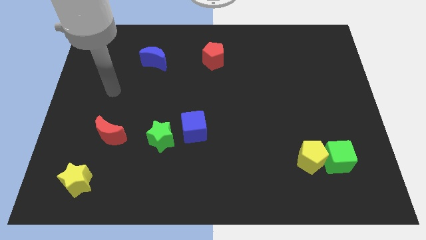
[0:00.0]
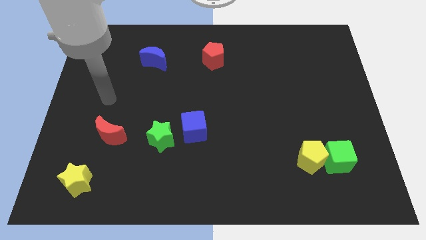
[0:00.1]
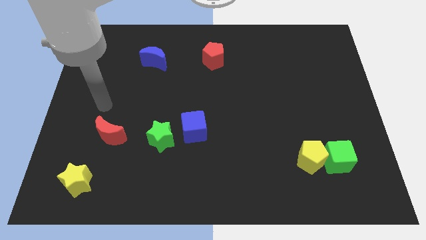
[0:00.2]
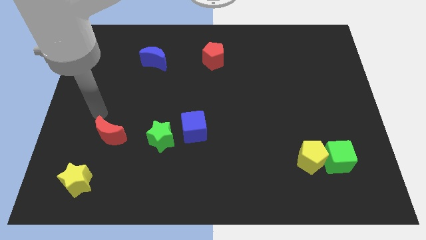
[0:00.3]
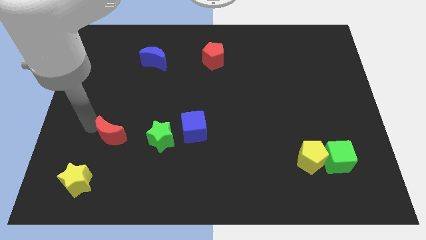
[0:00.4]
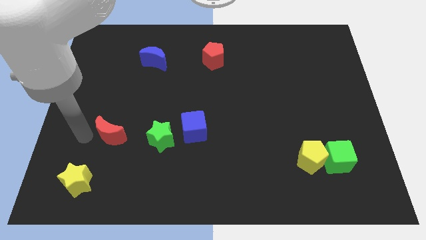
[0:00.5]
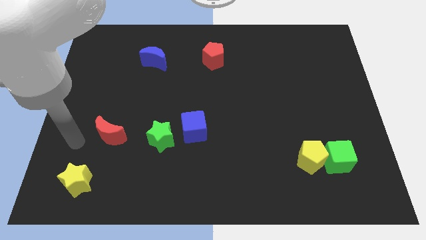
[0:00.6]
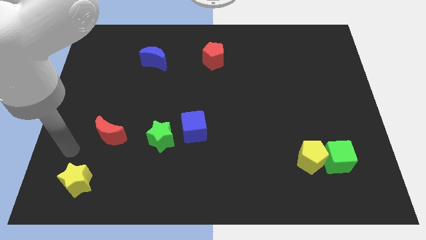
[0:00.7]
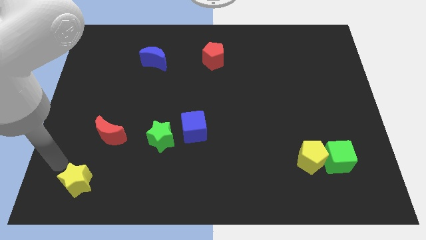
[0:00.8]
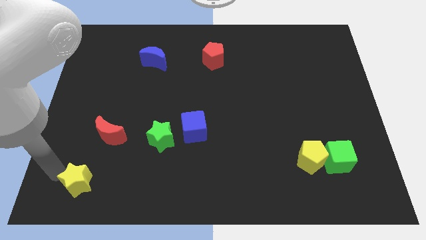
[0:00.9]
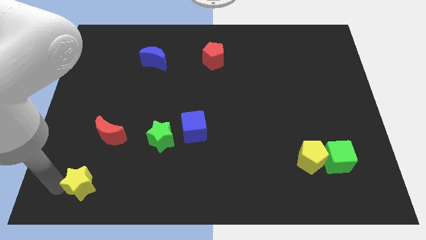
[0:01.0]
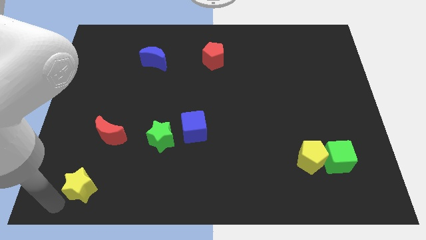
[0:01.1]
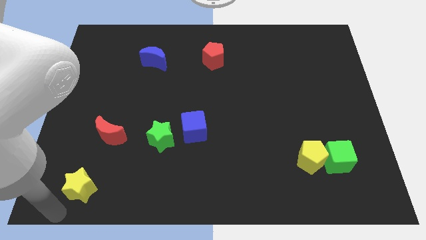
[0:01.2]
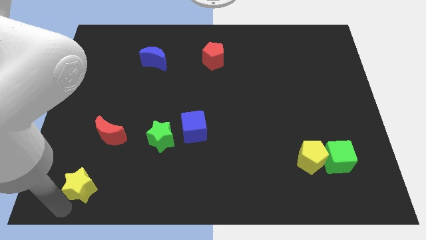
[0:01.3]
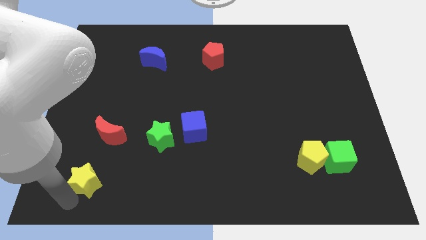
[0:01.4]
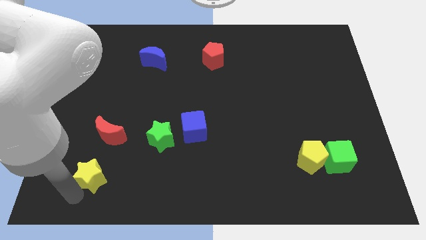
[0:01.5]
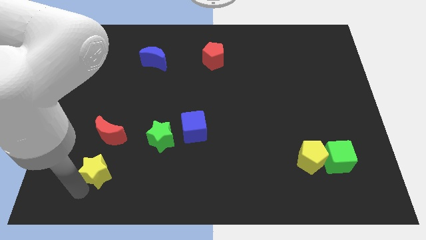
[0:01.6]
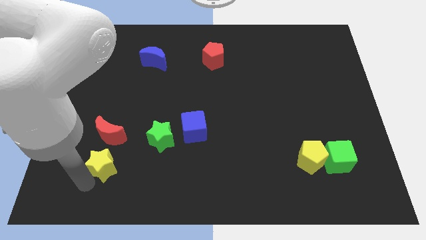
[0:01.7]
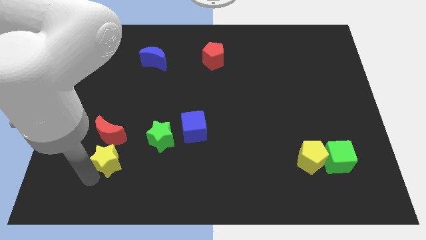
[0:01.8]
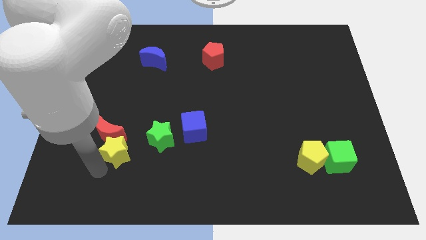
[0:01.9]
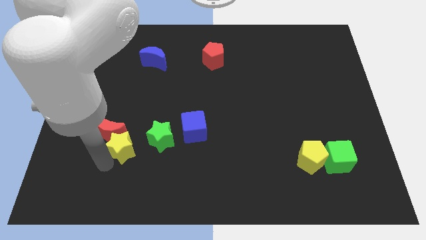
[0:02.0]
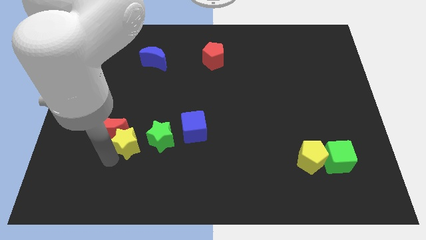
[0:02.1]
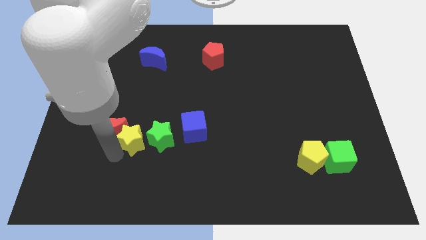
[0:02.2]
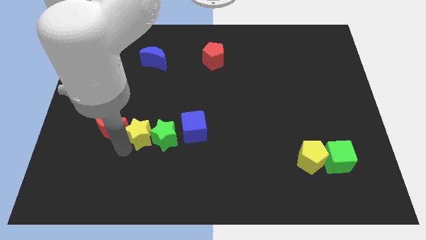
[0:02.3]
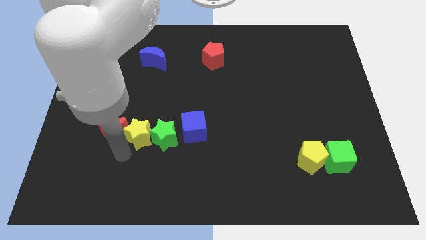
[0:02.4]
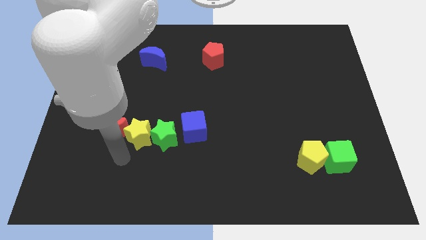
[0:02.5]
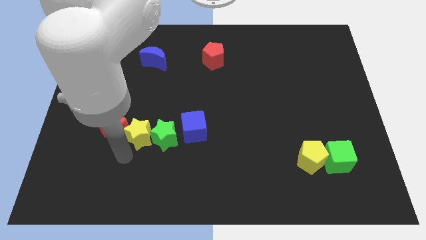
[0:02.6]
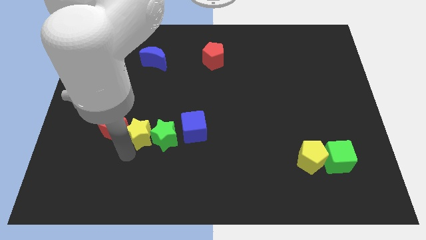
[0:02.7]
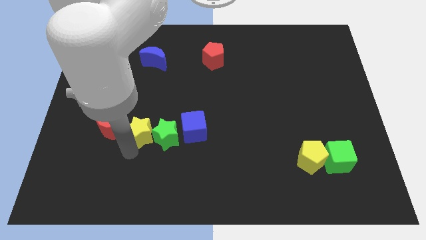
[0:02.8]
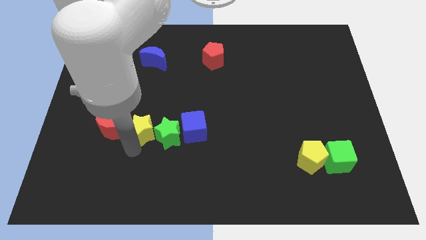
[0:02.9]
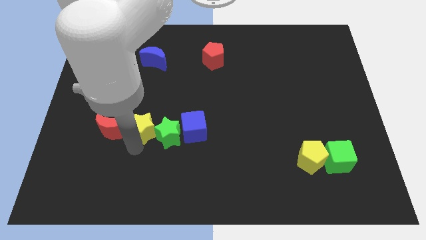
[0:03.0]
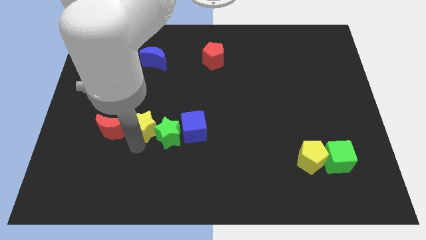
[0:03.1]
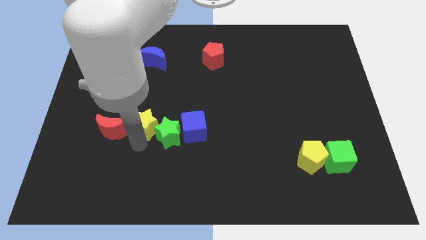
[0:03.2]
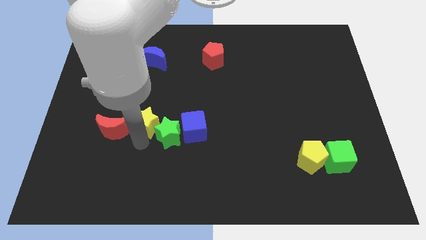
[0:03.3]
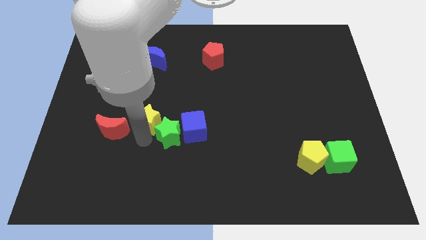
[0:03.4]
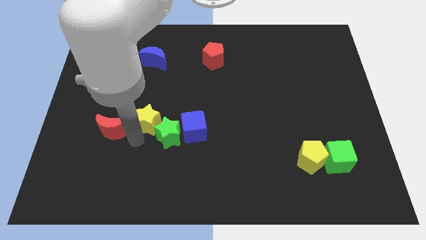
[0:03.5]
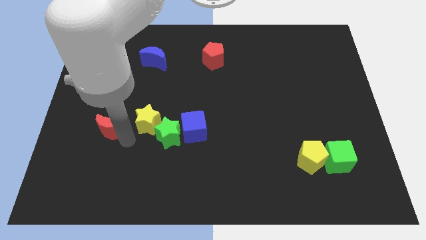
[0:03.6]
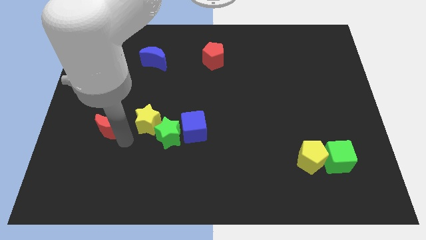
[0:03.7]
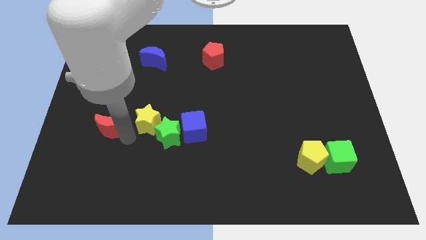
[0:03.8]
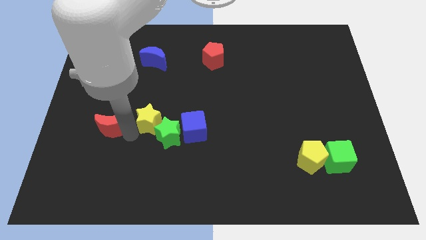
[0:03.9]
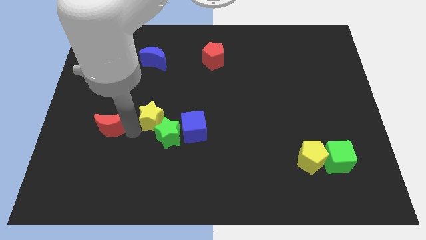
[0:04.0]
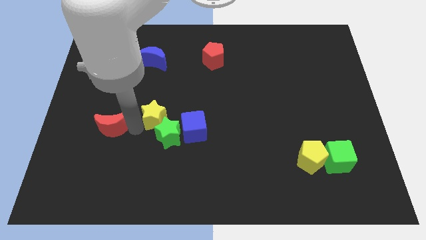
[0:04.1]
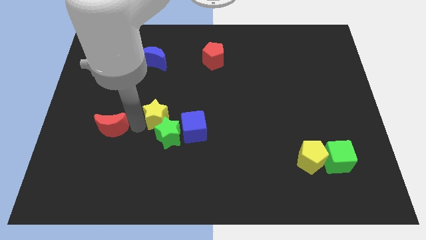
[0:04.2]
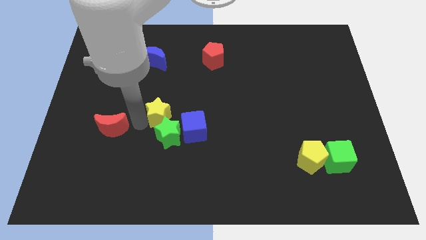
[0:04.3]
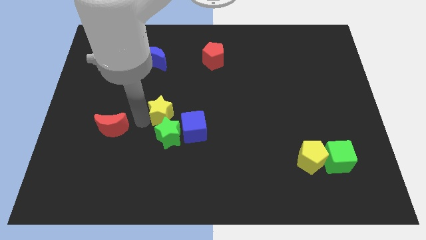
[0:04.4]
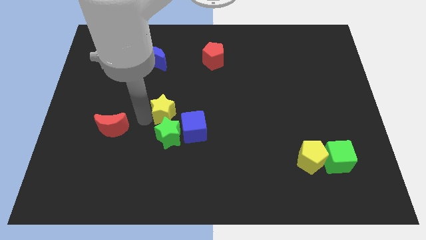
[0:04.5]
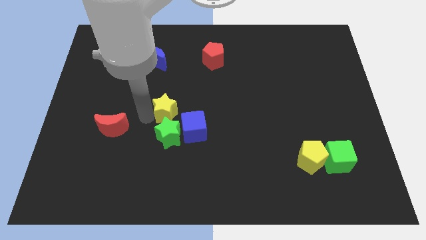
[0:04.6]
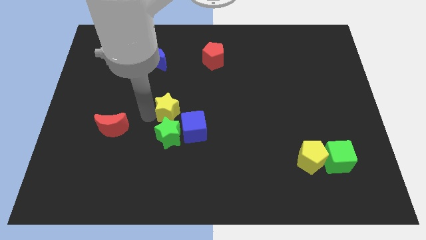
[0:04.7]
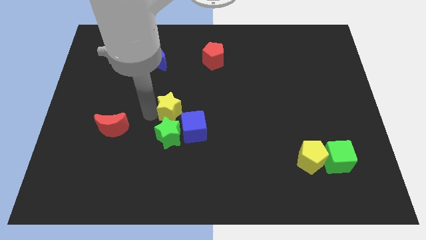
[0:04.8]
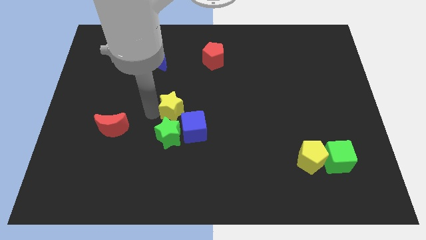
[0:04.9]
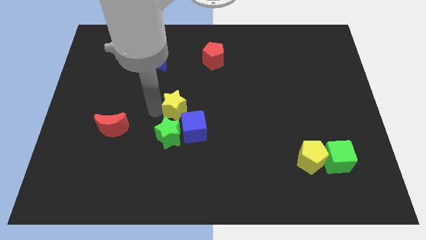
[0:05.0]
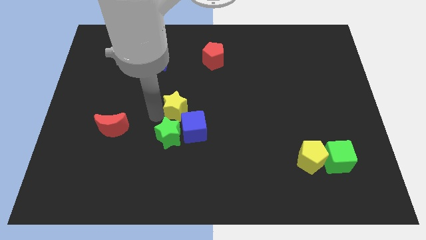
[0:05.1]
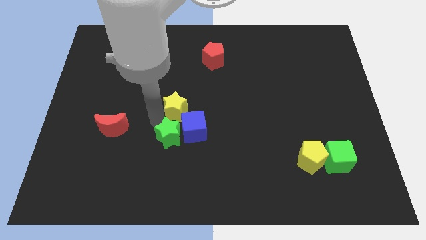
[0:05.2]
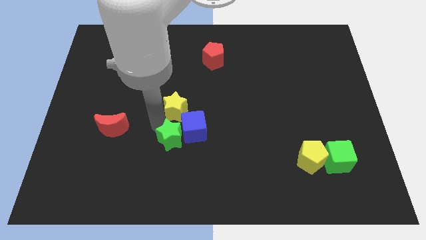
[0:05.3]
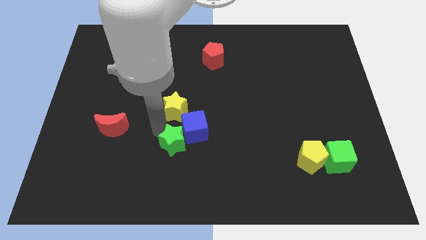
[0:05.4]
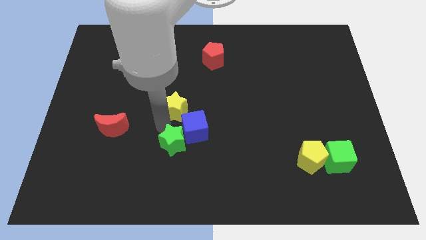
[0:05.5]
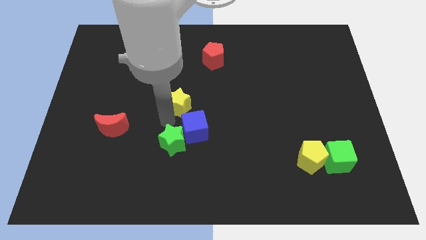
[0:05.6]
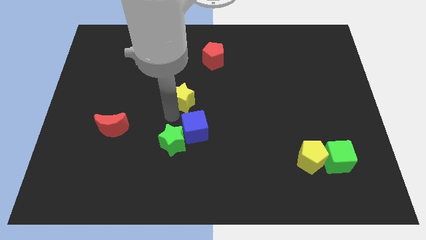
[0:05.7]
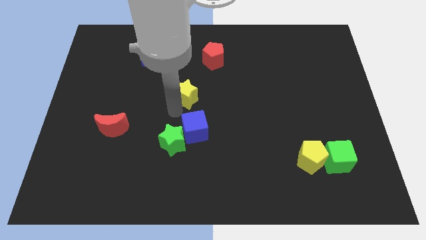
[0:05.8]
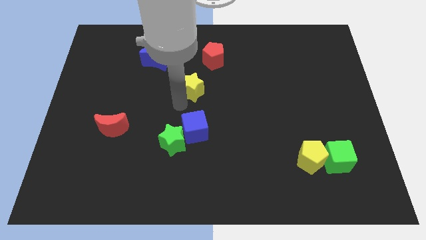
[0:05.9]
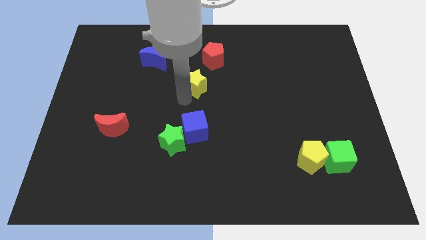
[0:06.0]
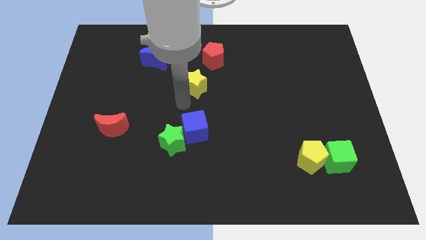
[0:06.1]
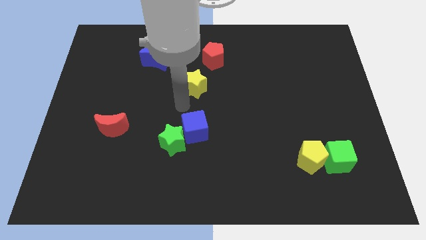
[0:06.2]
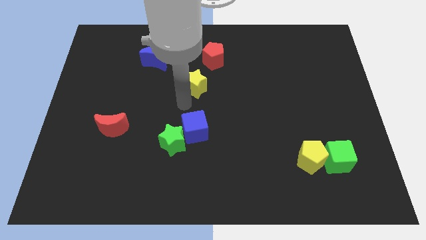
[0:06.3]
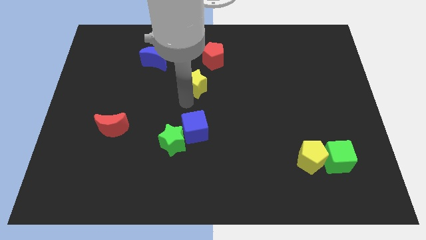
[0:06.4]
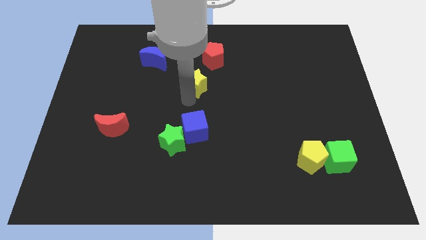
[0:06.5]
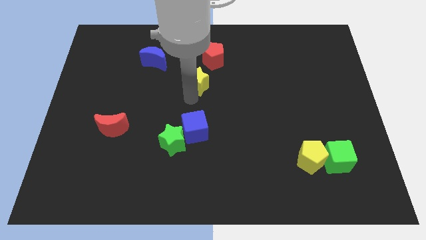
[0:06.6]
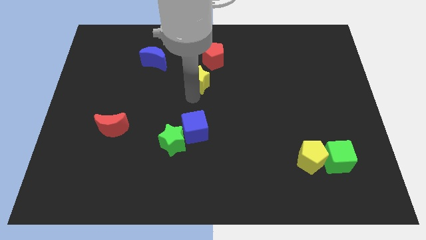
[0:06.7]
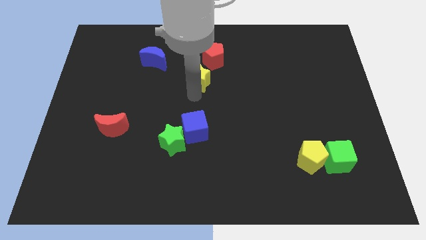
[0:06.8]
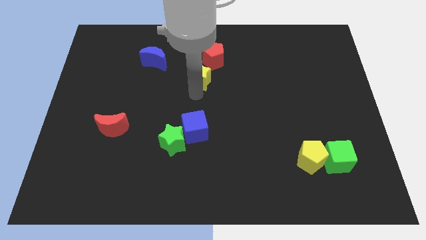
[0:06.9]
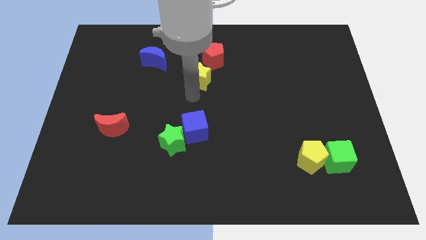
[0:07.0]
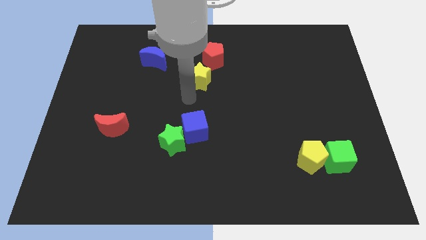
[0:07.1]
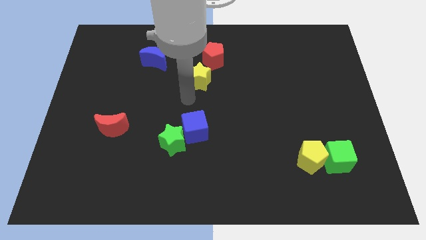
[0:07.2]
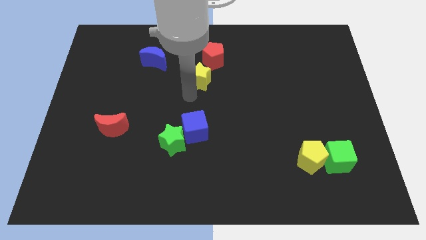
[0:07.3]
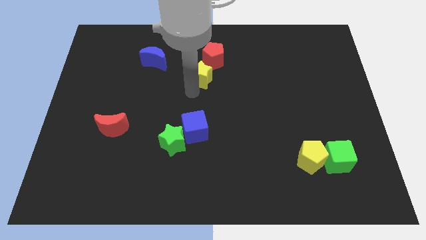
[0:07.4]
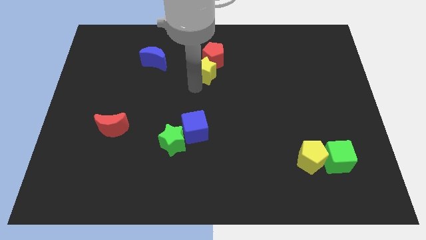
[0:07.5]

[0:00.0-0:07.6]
slide the yellow star next to the red pentagon
